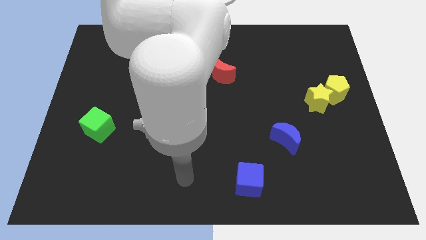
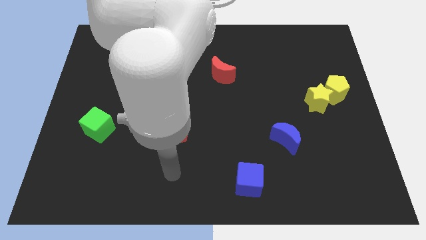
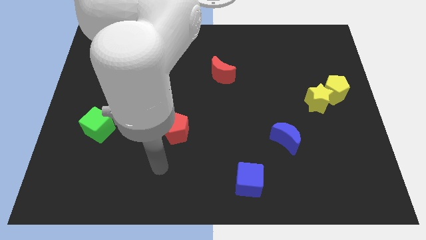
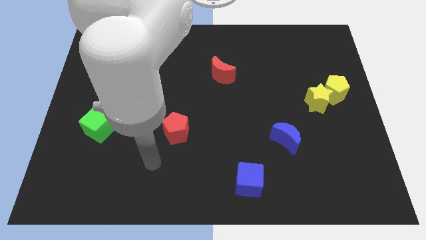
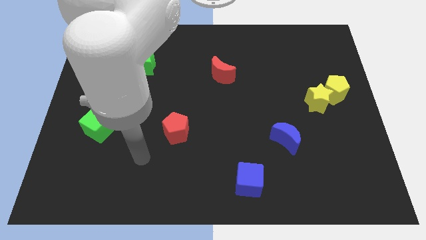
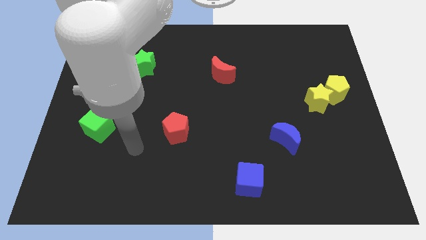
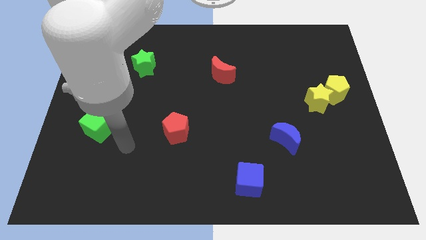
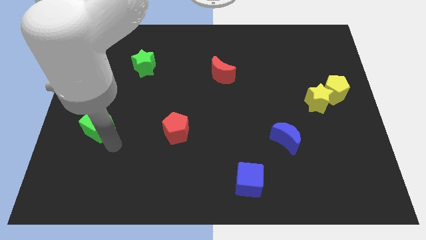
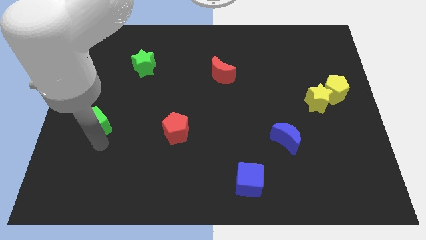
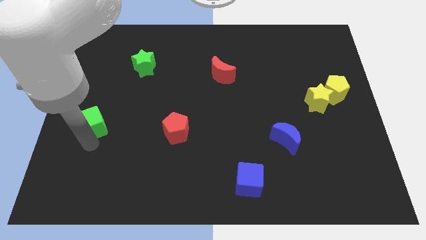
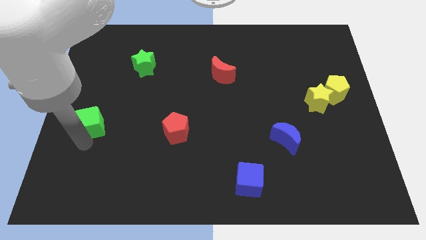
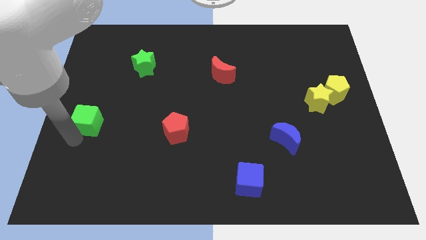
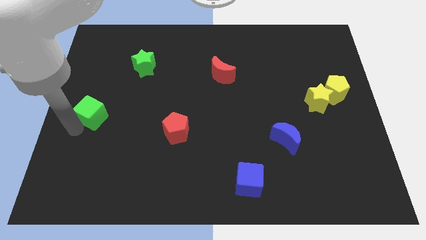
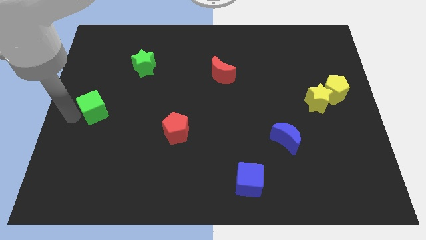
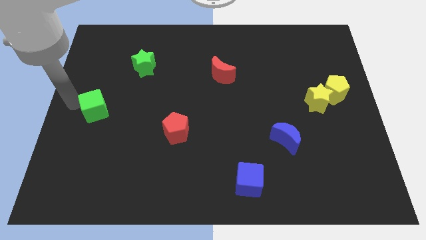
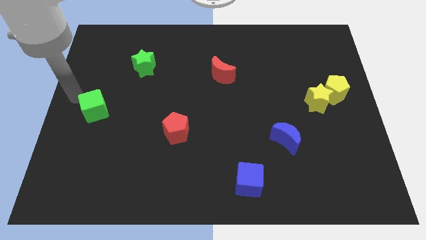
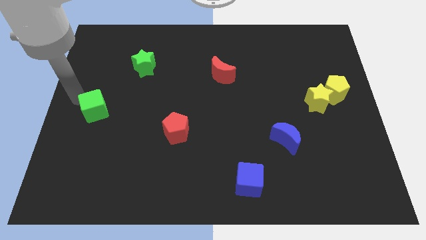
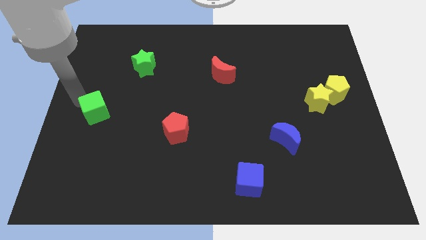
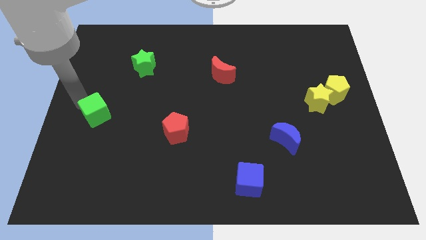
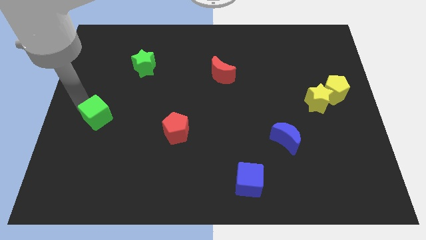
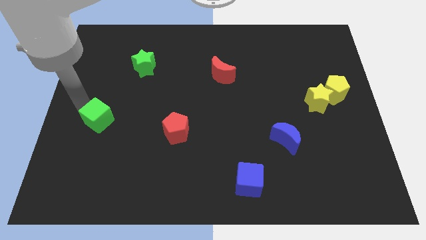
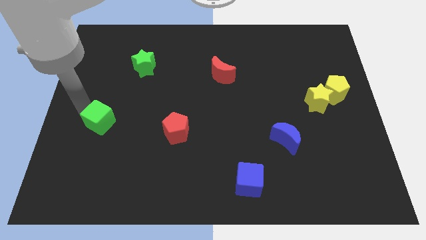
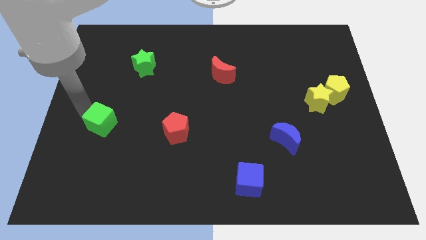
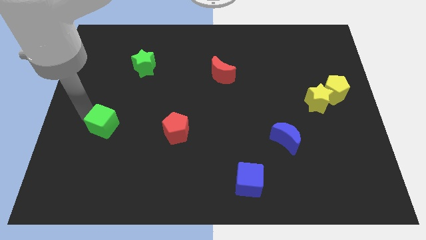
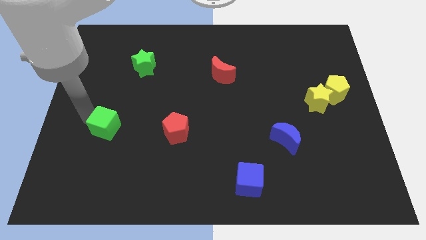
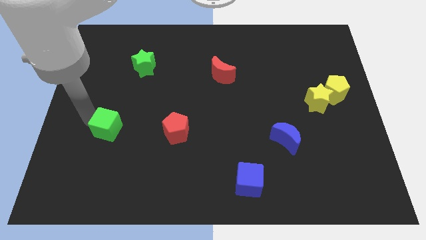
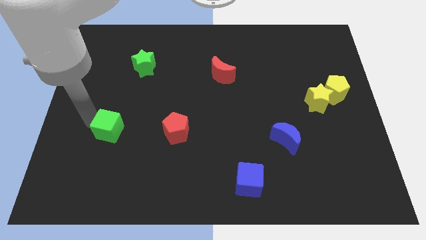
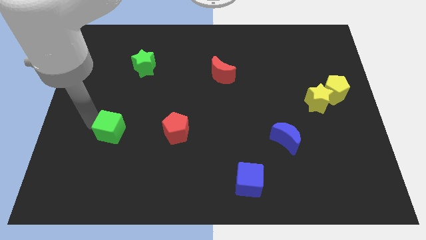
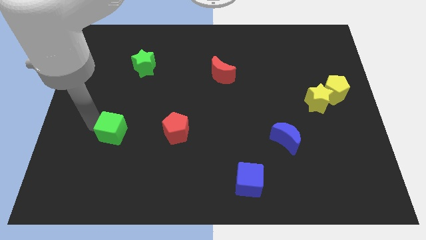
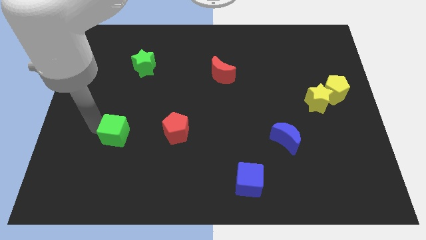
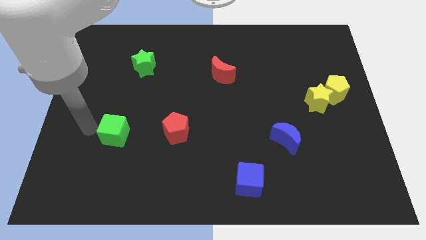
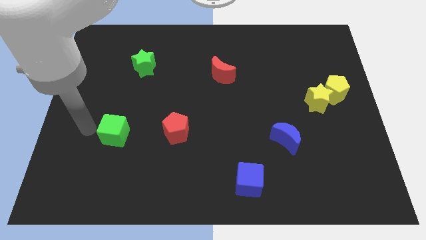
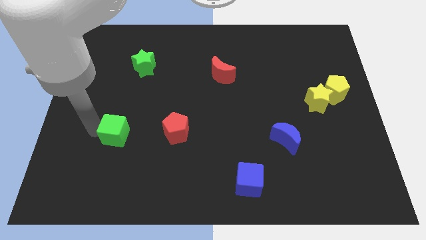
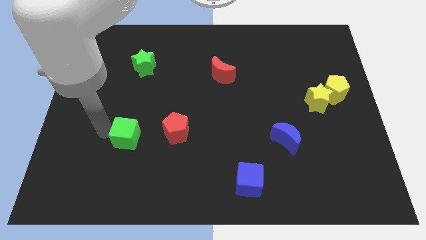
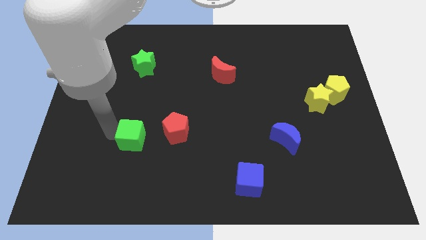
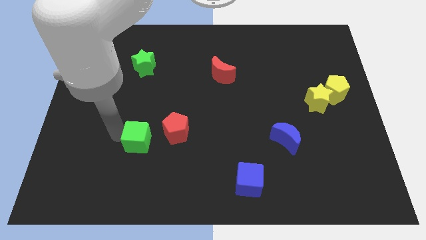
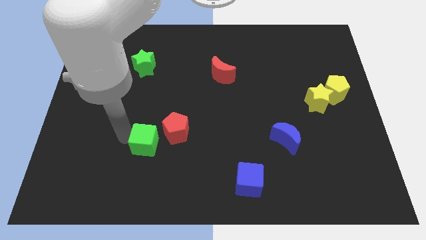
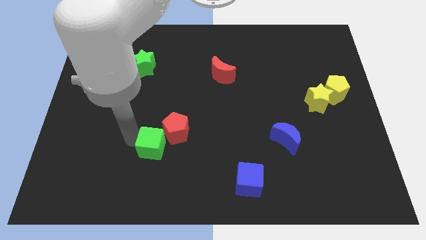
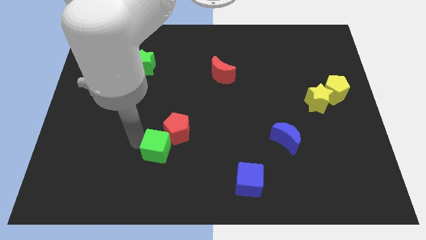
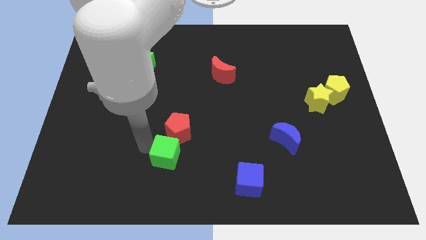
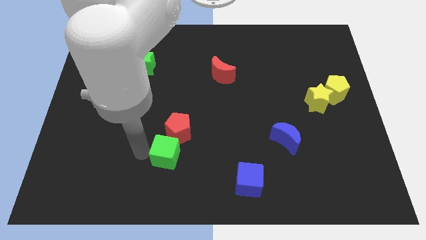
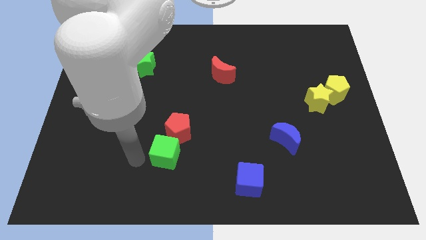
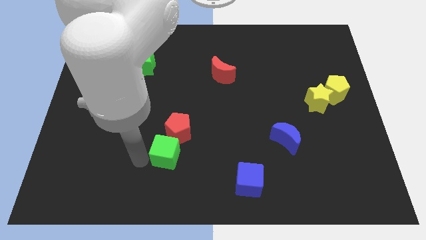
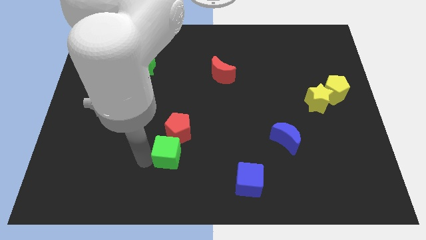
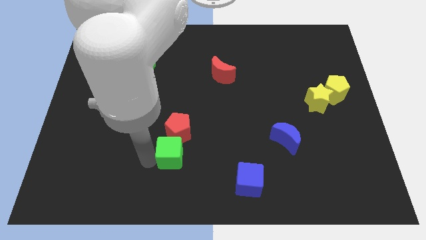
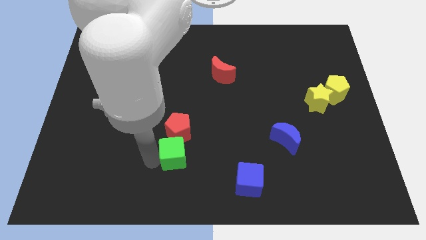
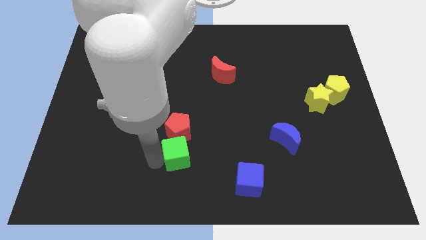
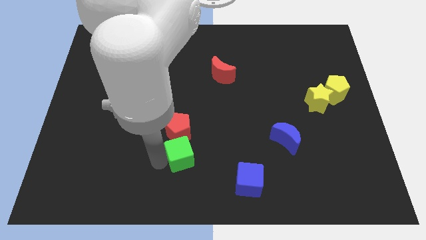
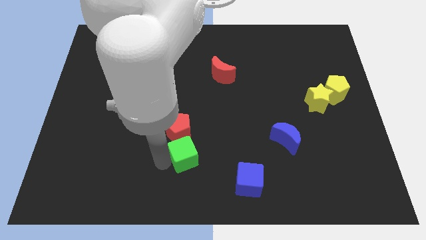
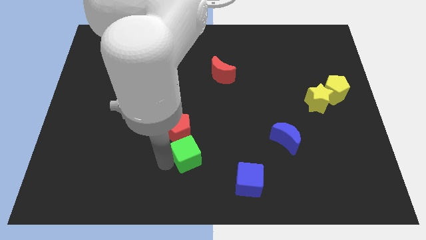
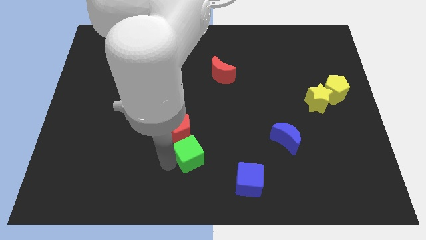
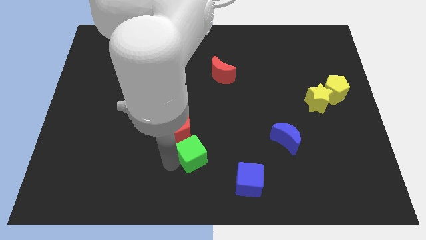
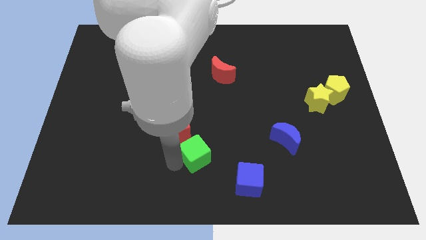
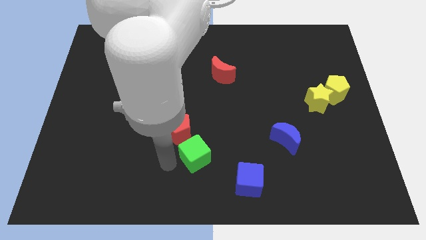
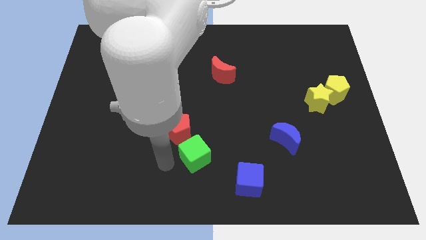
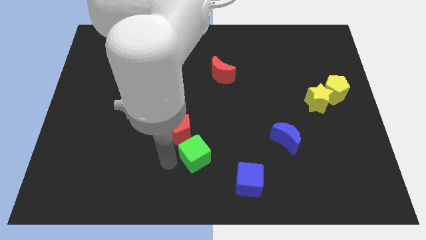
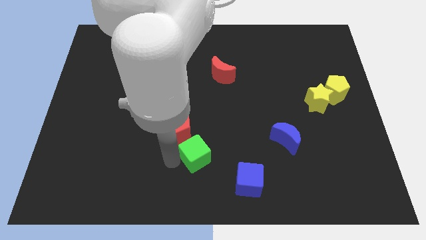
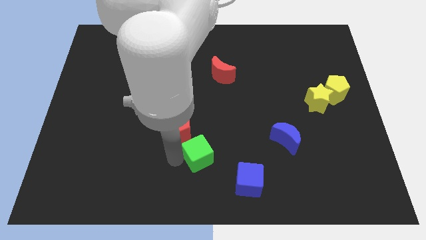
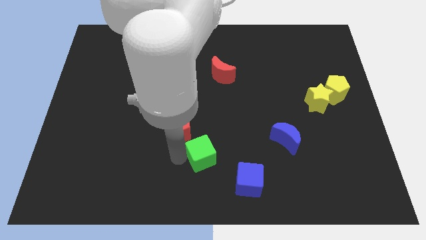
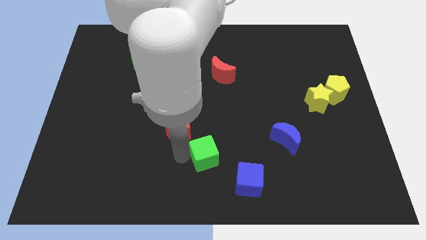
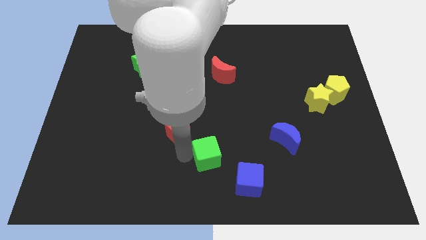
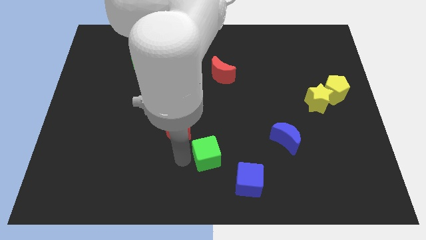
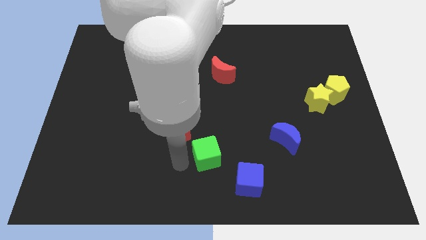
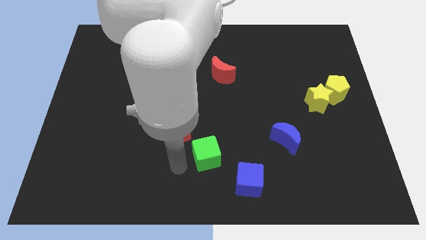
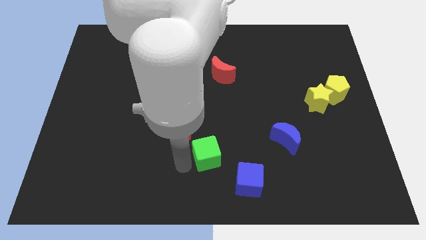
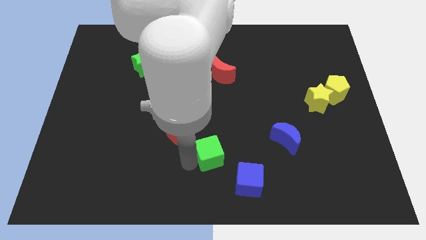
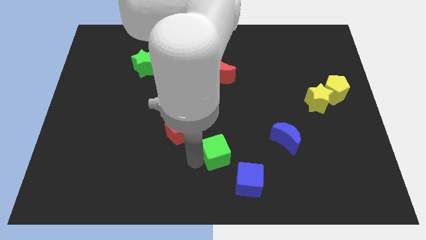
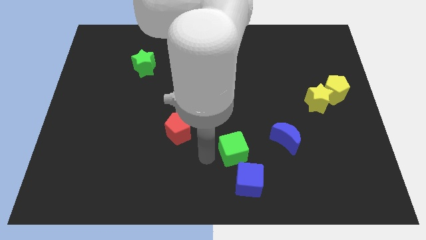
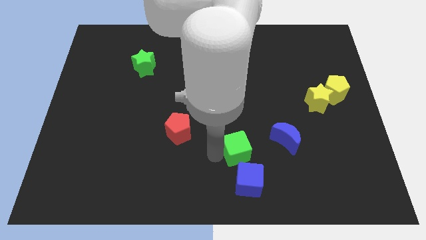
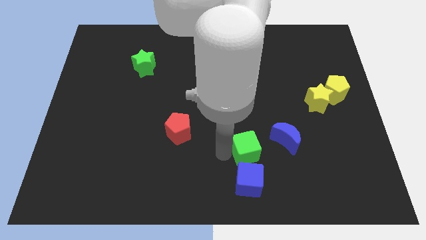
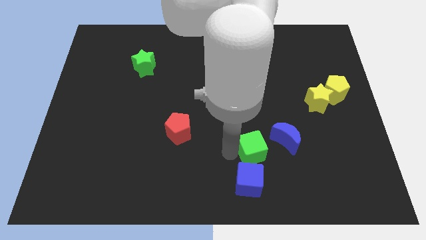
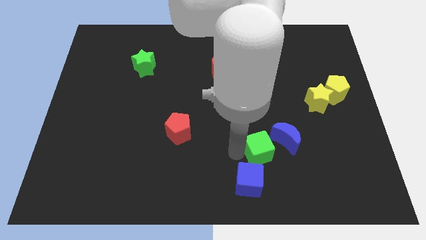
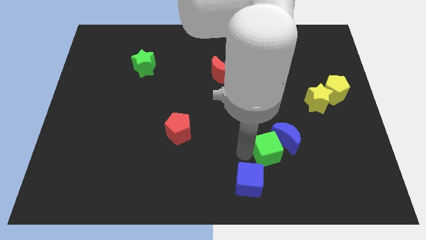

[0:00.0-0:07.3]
put the green cube close to the blue moon
